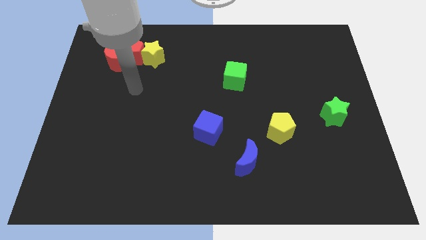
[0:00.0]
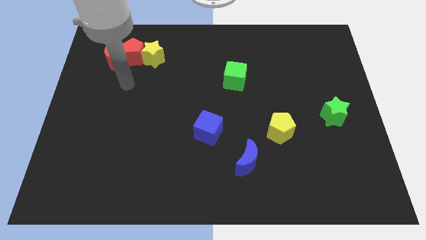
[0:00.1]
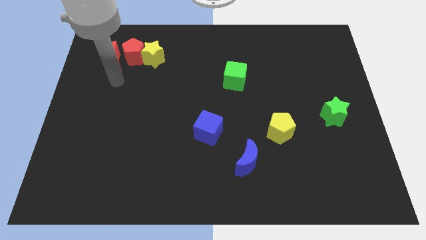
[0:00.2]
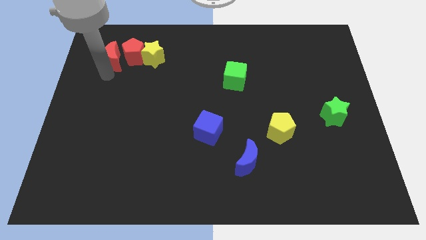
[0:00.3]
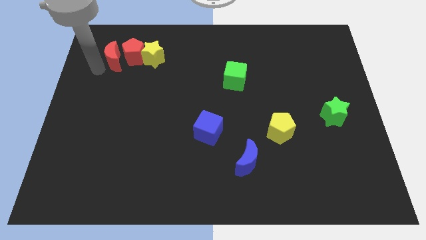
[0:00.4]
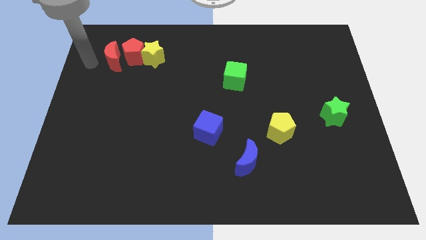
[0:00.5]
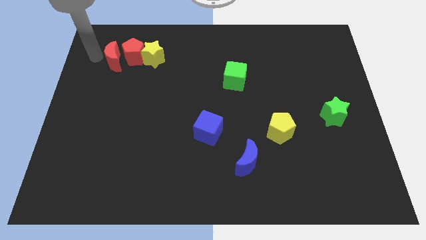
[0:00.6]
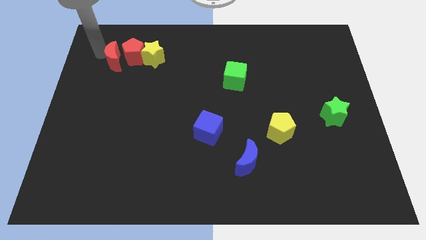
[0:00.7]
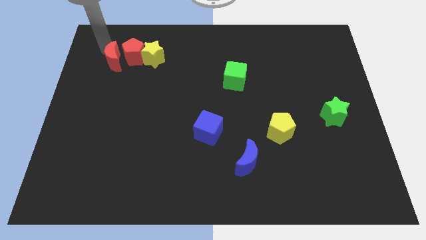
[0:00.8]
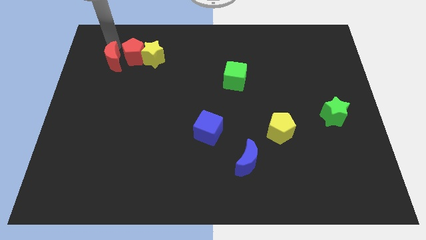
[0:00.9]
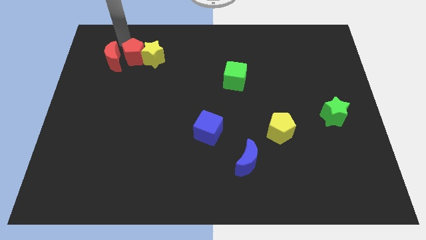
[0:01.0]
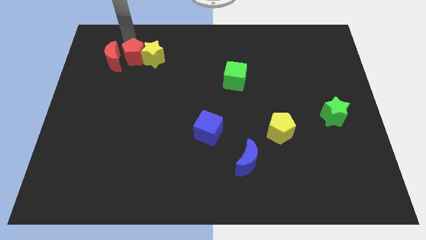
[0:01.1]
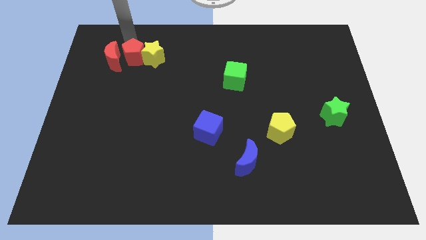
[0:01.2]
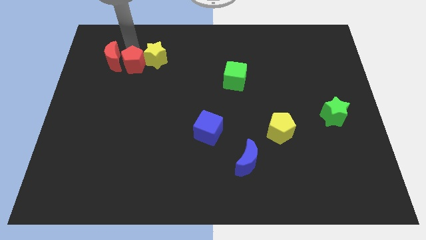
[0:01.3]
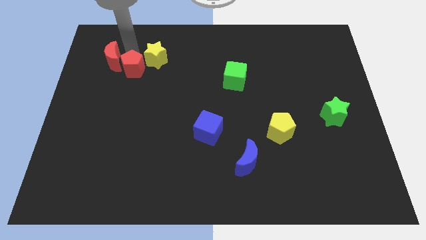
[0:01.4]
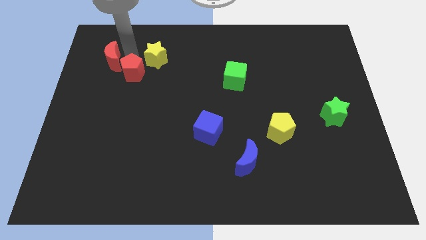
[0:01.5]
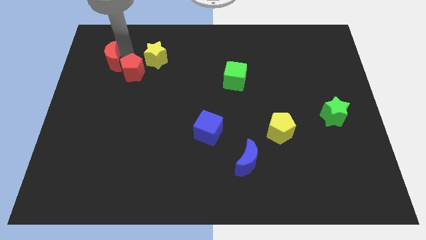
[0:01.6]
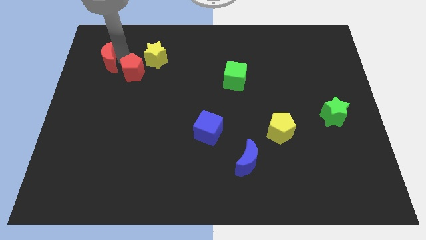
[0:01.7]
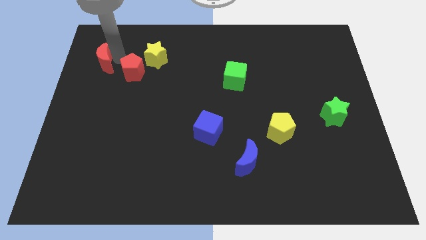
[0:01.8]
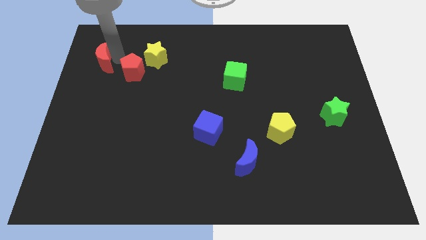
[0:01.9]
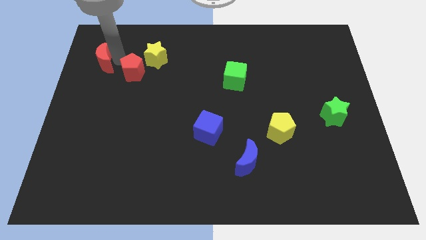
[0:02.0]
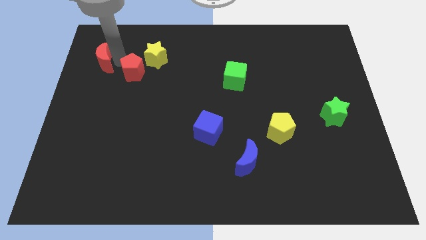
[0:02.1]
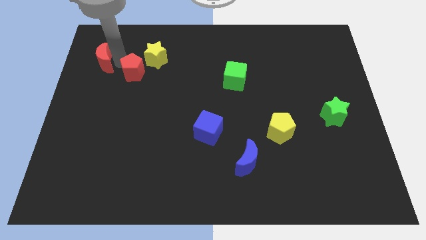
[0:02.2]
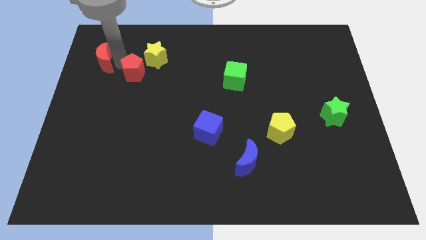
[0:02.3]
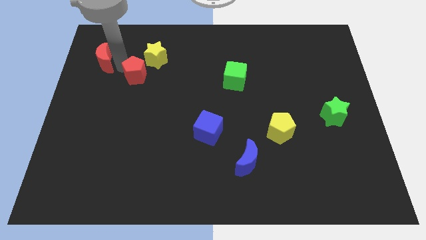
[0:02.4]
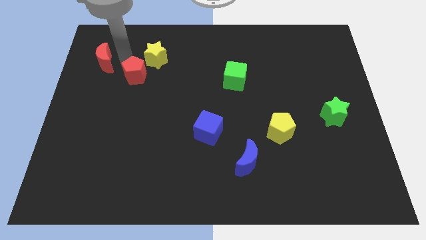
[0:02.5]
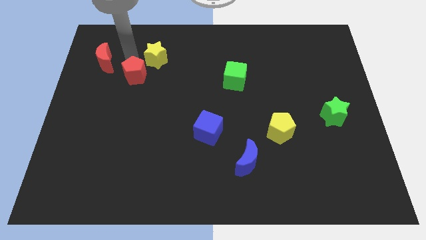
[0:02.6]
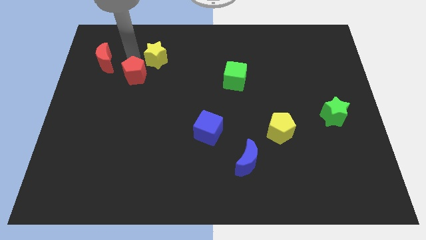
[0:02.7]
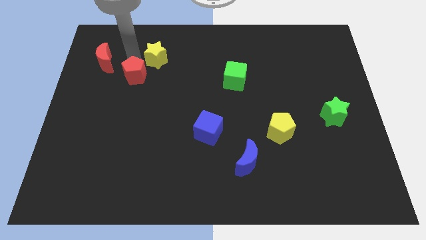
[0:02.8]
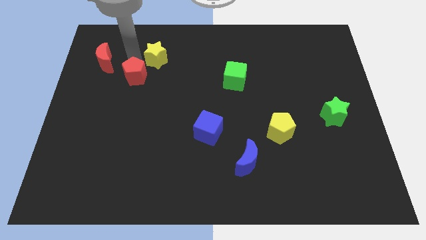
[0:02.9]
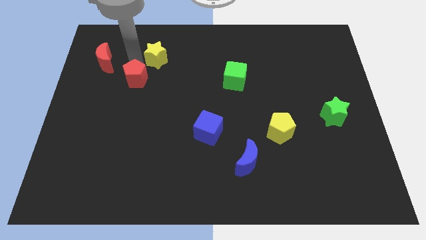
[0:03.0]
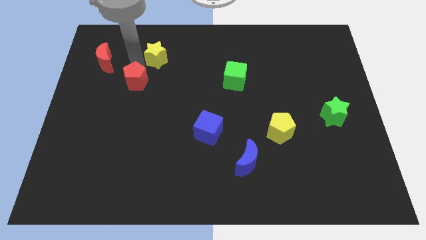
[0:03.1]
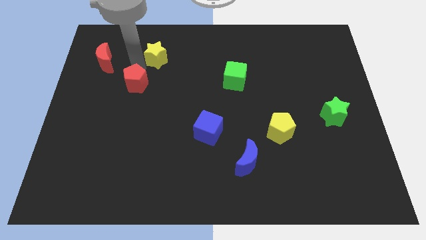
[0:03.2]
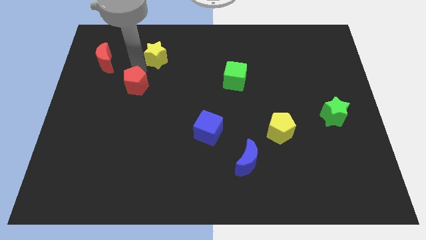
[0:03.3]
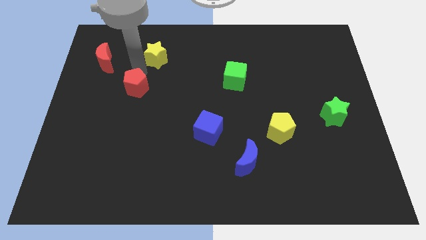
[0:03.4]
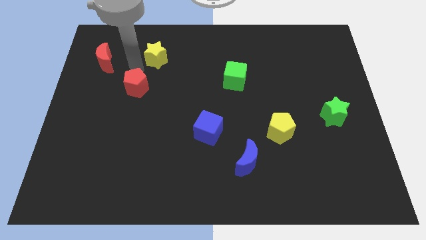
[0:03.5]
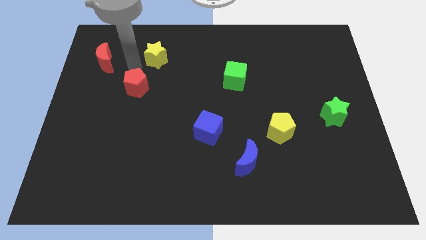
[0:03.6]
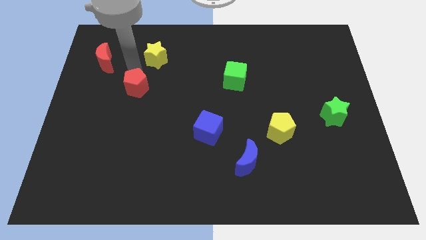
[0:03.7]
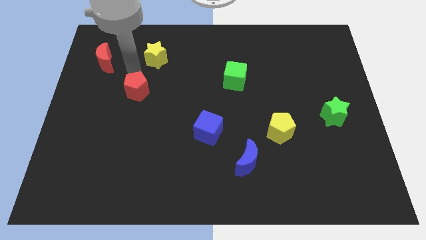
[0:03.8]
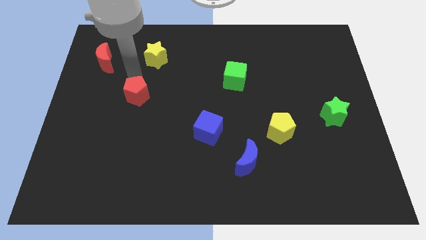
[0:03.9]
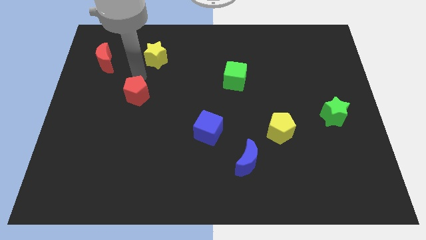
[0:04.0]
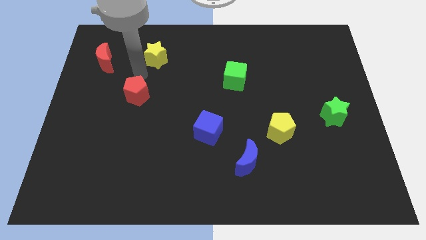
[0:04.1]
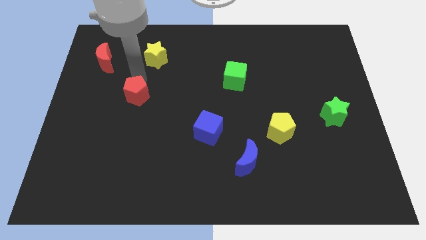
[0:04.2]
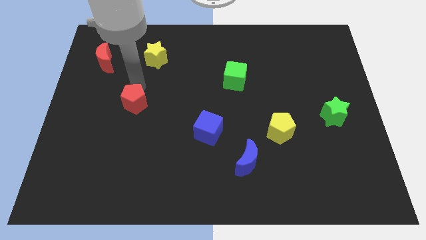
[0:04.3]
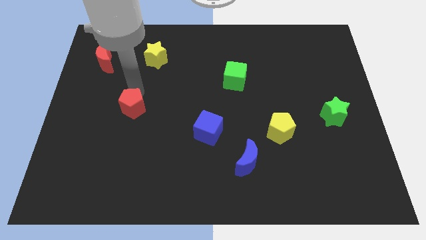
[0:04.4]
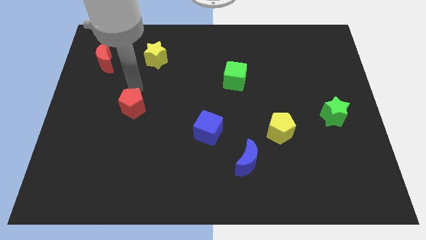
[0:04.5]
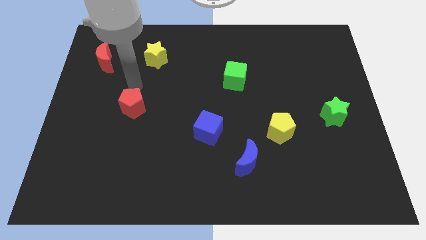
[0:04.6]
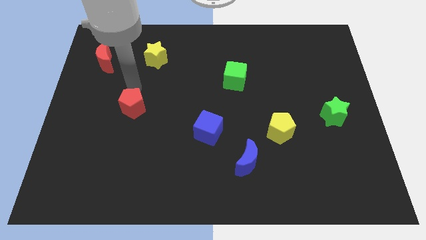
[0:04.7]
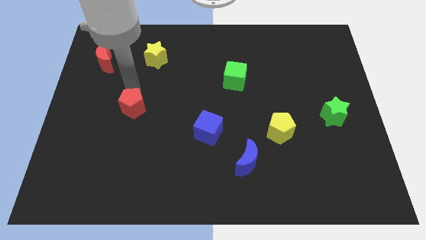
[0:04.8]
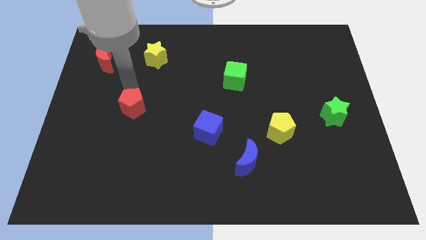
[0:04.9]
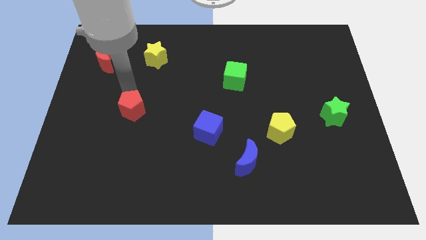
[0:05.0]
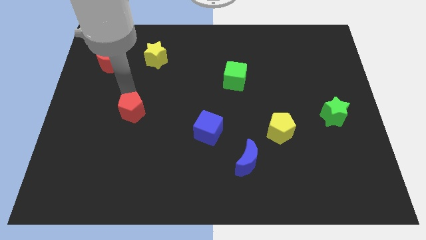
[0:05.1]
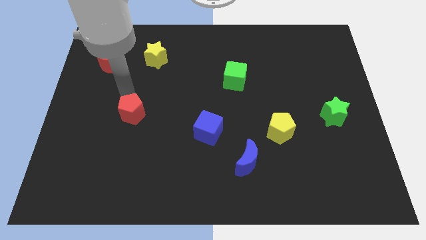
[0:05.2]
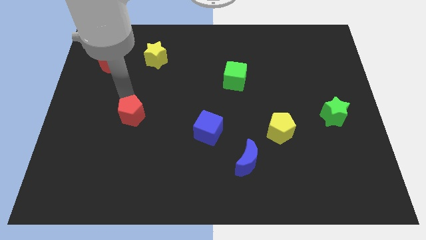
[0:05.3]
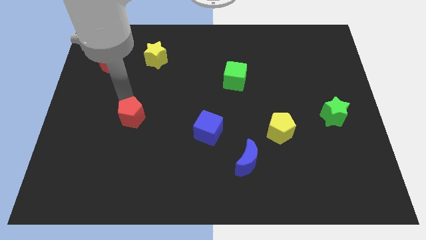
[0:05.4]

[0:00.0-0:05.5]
slide the red pentagon downwards

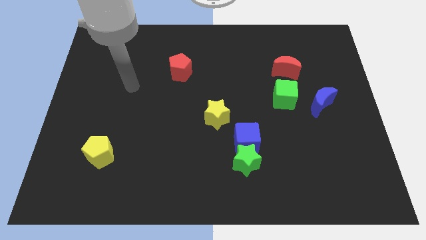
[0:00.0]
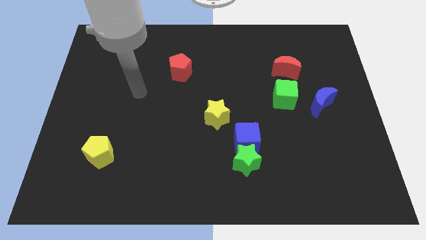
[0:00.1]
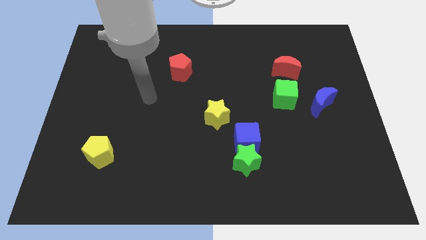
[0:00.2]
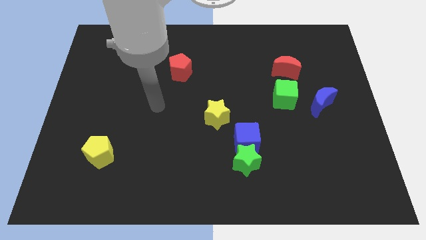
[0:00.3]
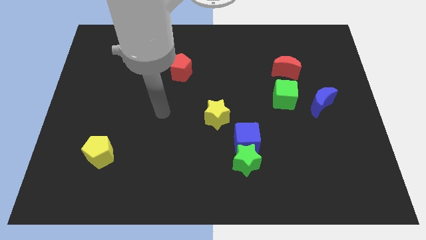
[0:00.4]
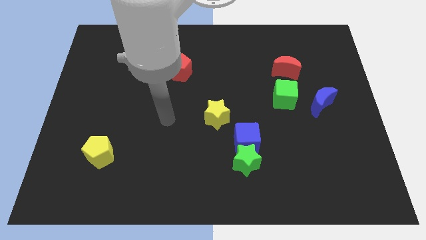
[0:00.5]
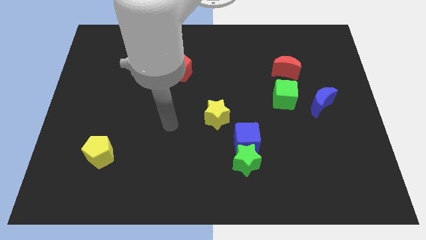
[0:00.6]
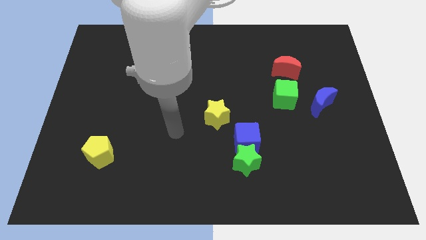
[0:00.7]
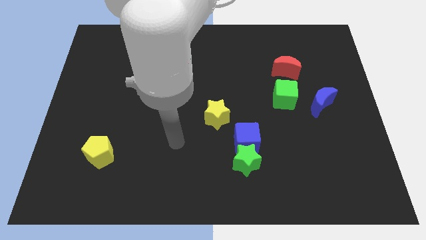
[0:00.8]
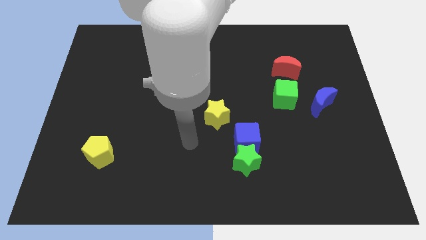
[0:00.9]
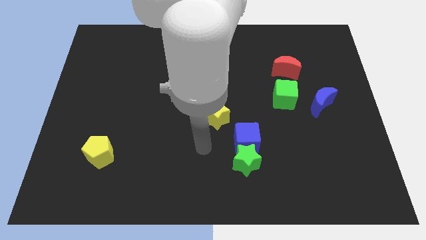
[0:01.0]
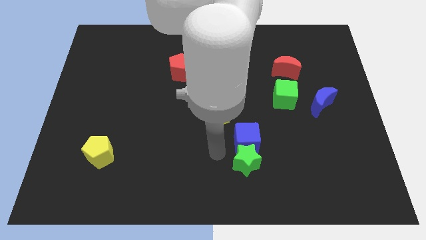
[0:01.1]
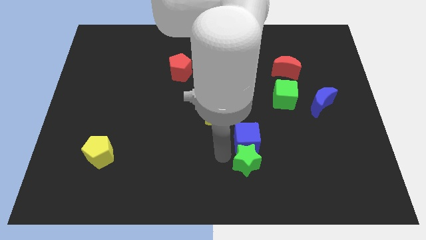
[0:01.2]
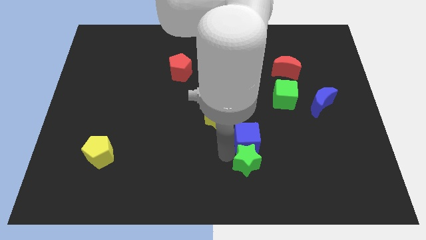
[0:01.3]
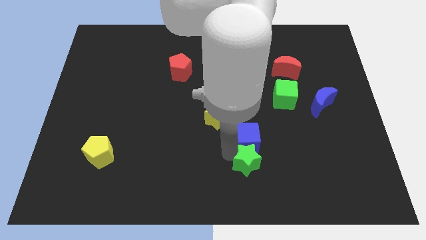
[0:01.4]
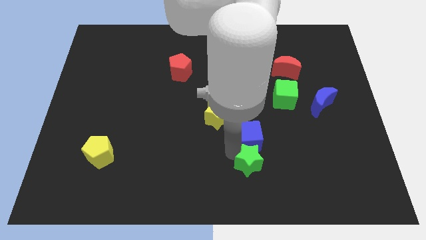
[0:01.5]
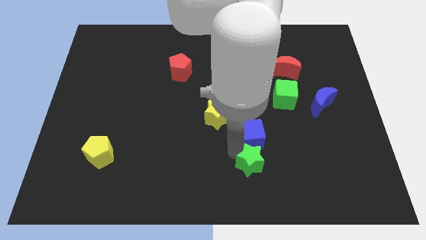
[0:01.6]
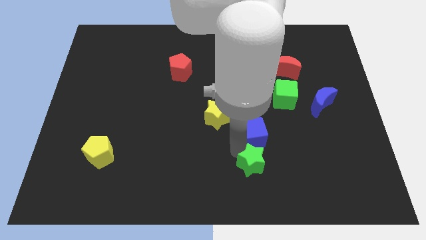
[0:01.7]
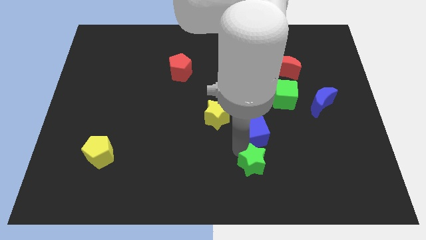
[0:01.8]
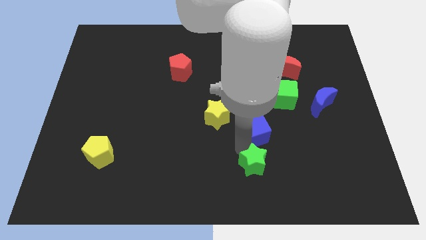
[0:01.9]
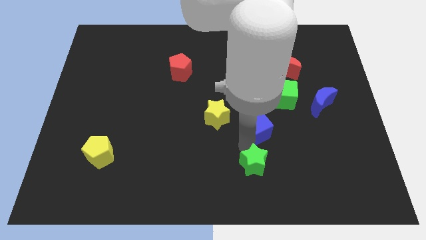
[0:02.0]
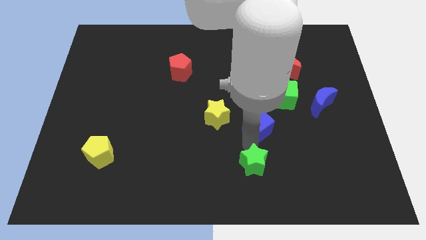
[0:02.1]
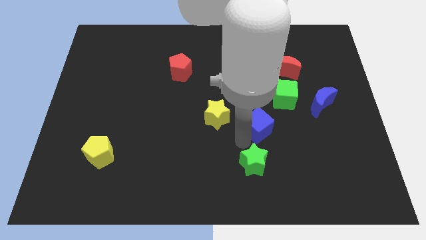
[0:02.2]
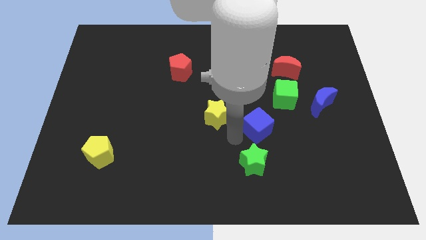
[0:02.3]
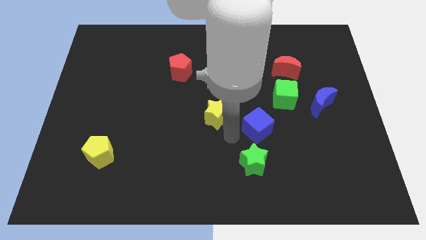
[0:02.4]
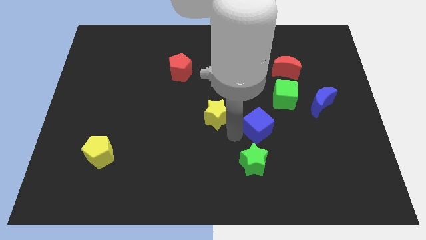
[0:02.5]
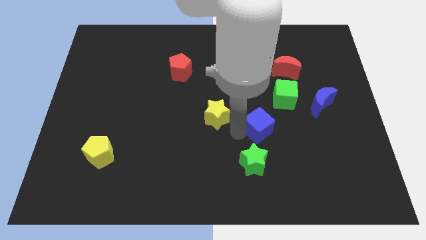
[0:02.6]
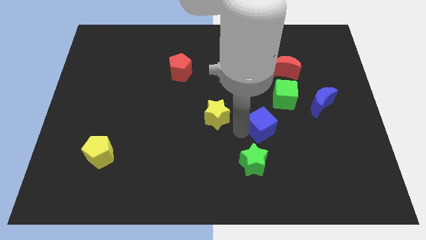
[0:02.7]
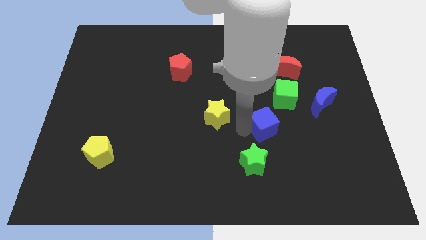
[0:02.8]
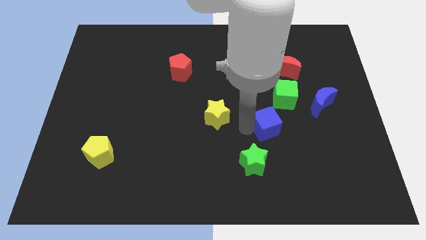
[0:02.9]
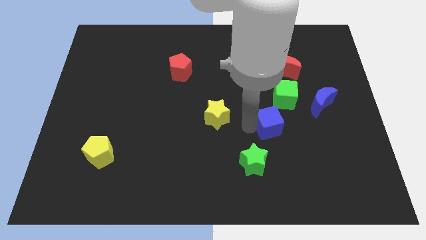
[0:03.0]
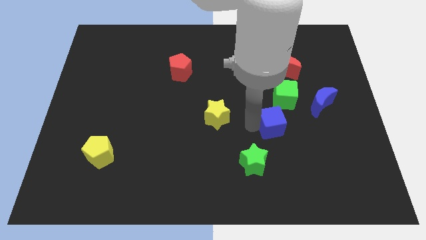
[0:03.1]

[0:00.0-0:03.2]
slide the blue cube a little diagonally up and to the right
